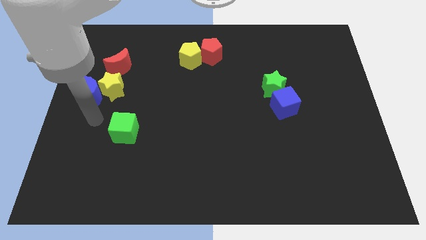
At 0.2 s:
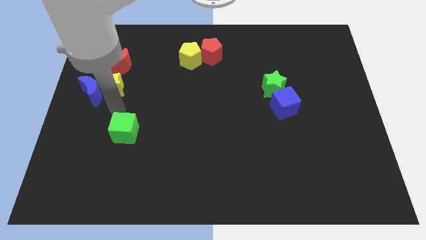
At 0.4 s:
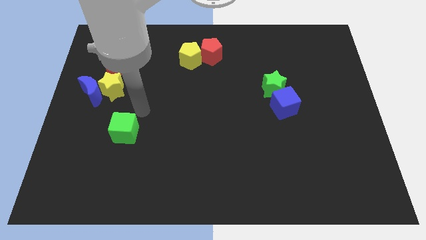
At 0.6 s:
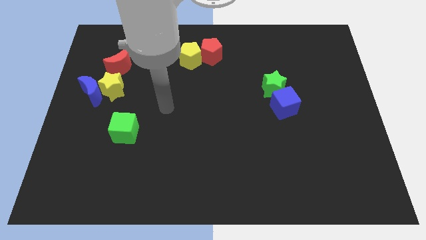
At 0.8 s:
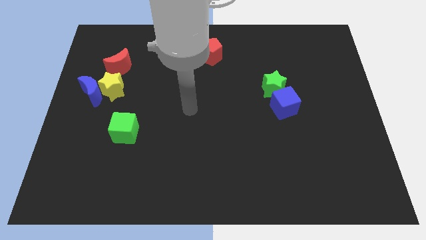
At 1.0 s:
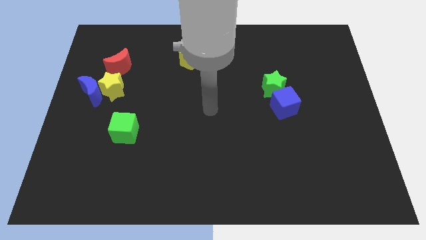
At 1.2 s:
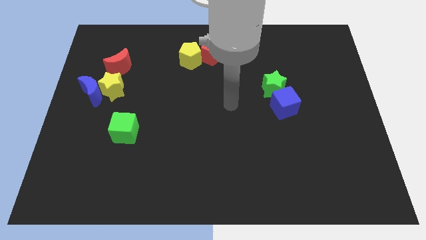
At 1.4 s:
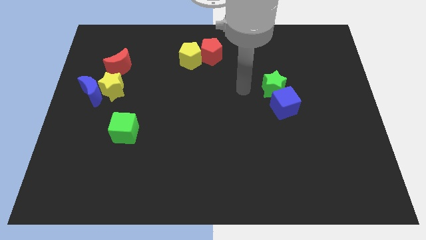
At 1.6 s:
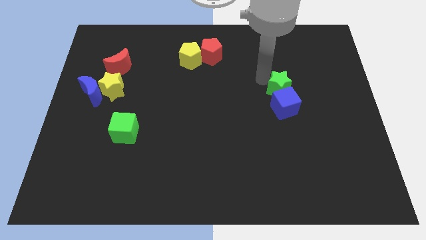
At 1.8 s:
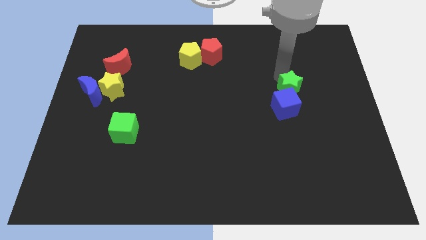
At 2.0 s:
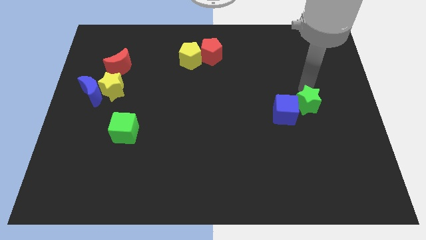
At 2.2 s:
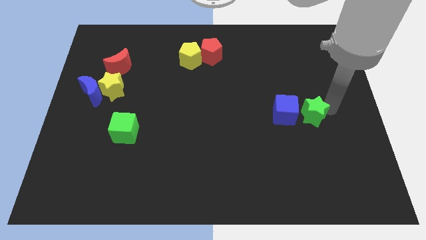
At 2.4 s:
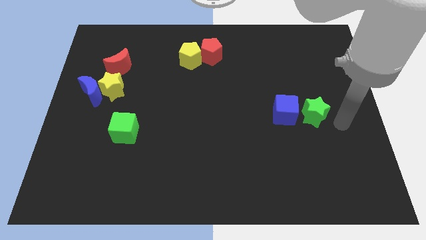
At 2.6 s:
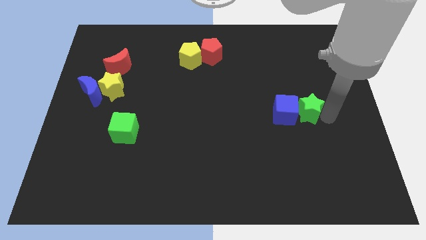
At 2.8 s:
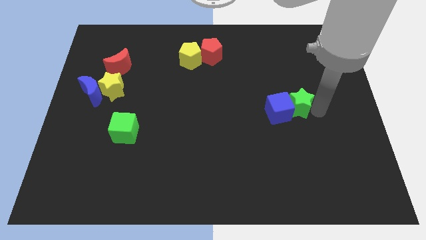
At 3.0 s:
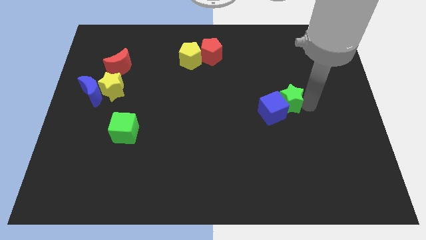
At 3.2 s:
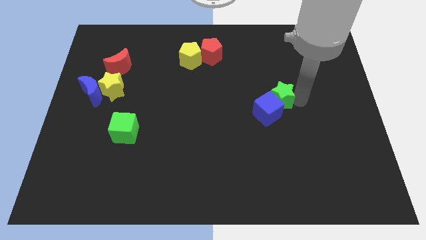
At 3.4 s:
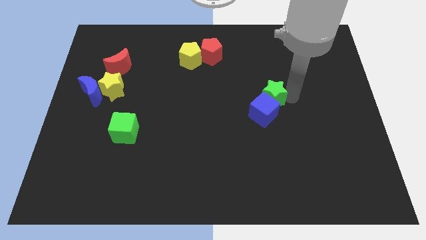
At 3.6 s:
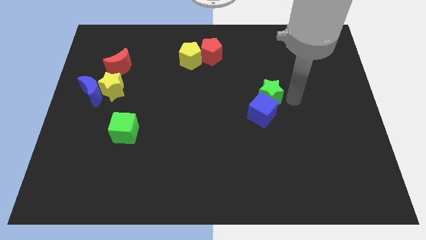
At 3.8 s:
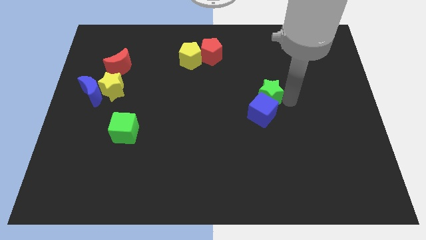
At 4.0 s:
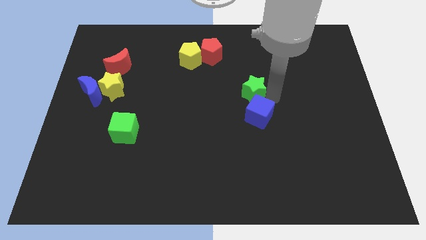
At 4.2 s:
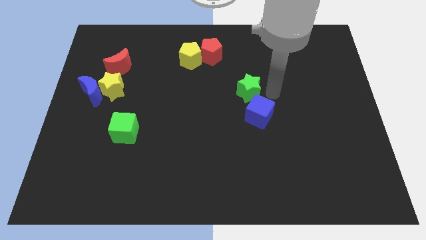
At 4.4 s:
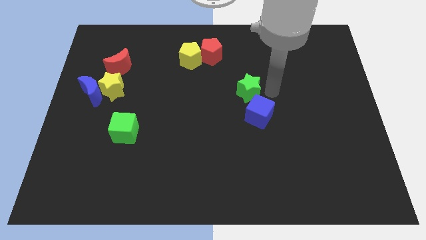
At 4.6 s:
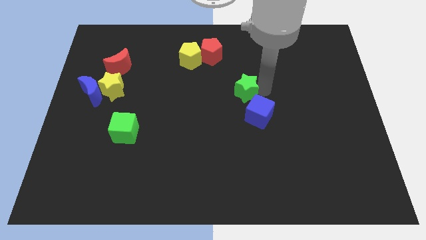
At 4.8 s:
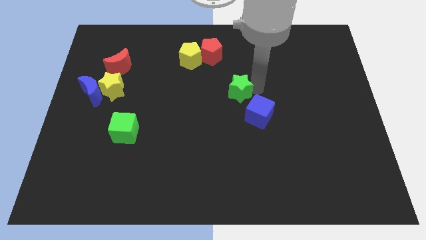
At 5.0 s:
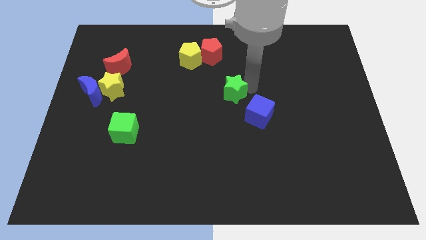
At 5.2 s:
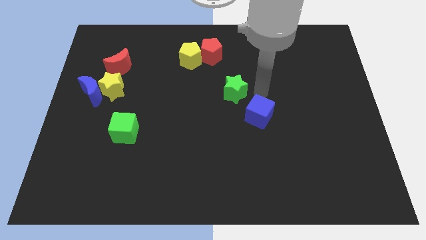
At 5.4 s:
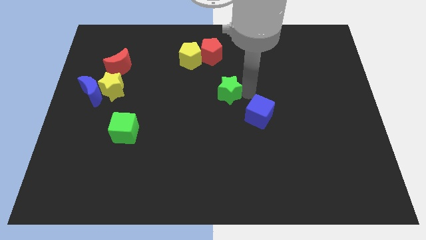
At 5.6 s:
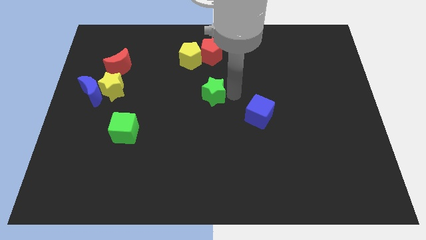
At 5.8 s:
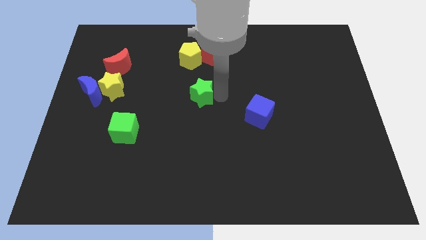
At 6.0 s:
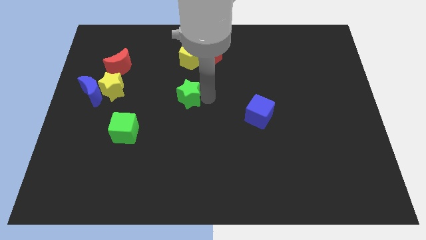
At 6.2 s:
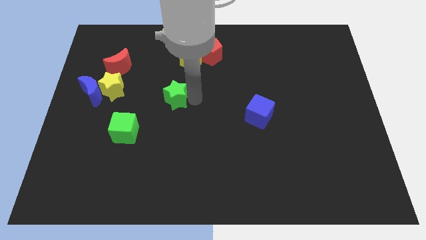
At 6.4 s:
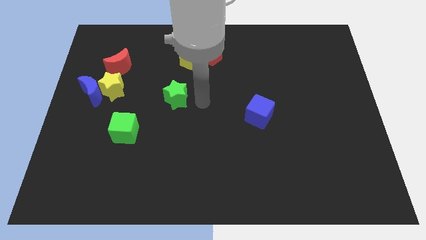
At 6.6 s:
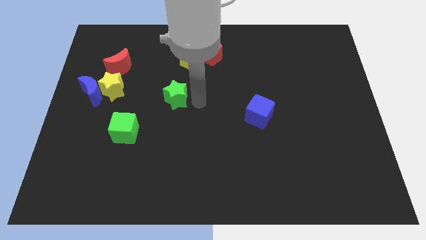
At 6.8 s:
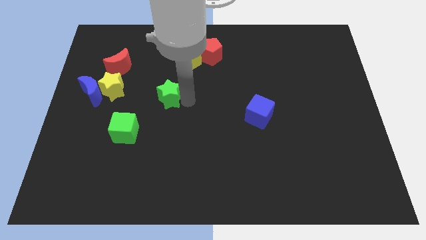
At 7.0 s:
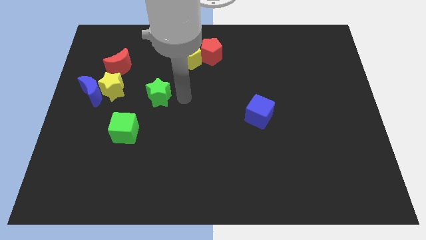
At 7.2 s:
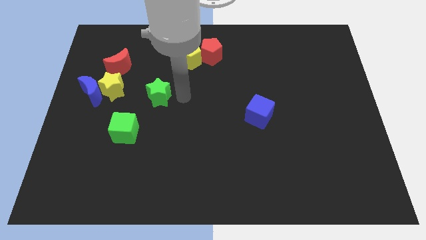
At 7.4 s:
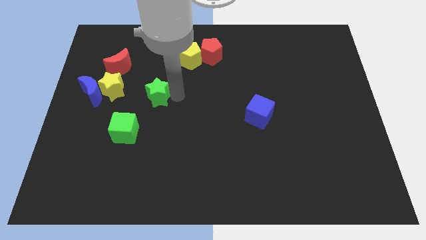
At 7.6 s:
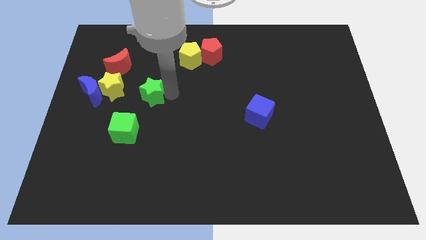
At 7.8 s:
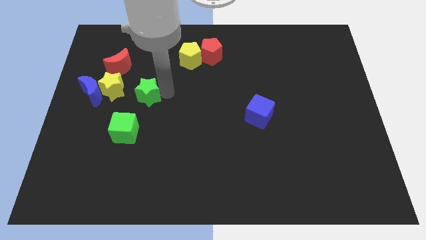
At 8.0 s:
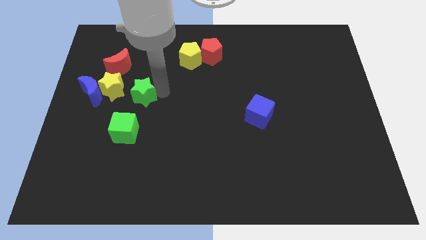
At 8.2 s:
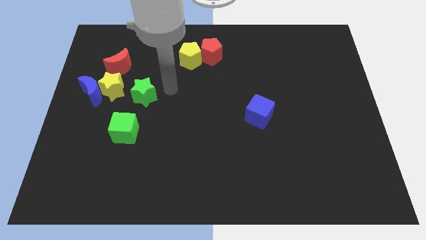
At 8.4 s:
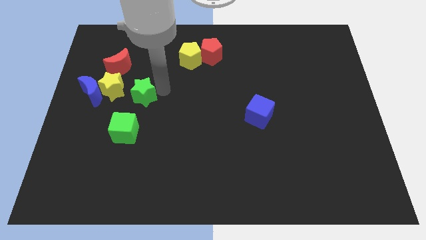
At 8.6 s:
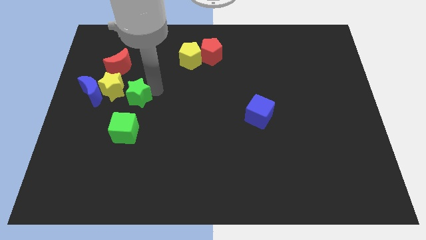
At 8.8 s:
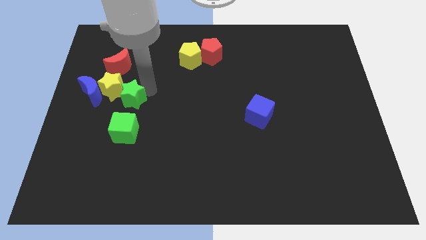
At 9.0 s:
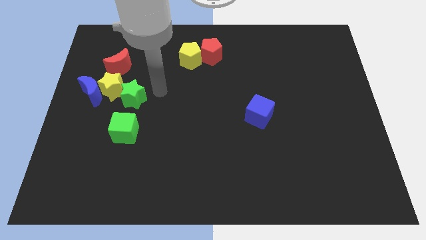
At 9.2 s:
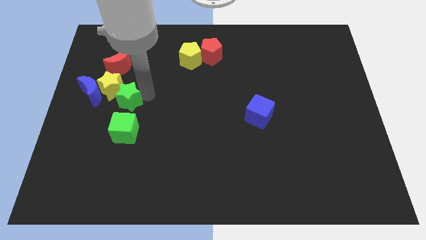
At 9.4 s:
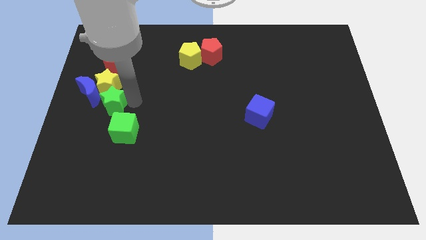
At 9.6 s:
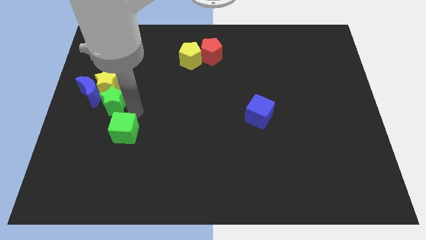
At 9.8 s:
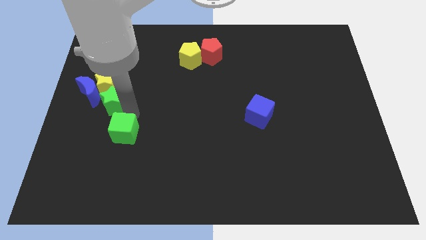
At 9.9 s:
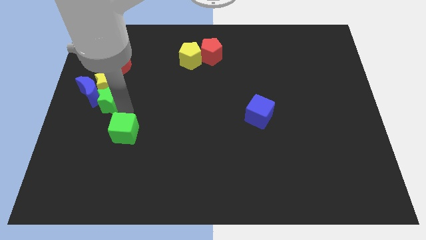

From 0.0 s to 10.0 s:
push the green star towards the blue moon

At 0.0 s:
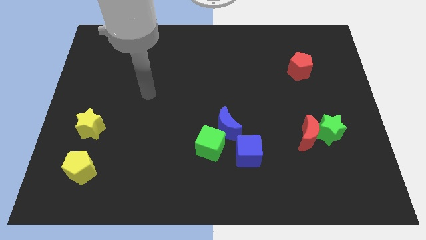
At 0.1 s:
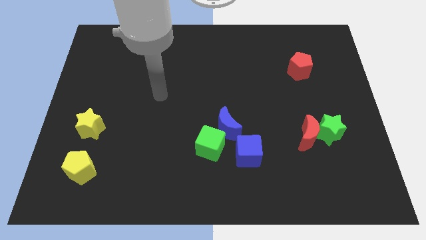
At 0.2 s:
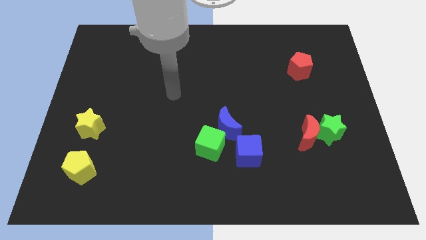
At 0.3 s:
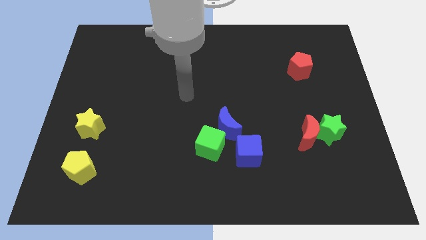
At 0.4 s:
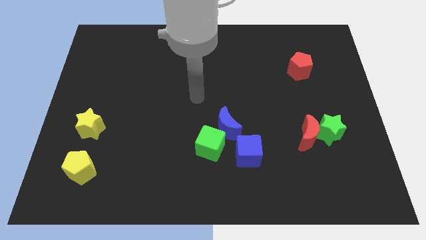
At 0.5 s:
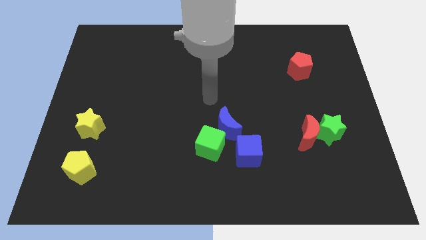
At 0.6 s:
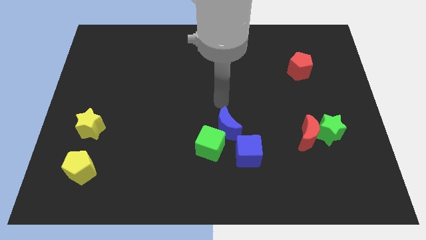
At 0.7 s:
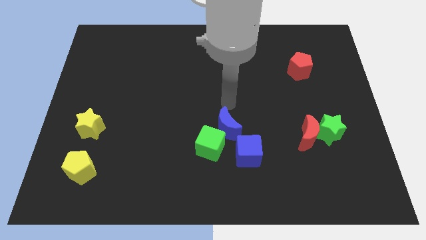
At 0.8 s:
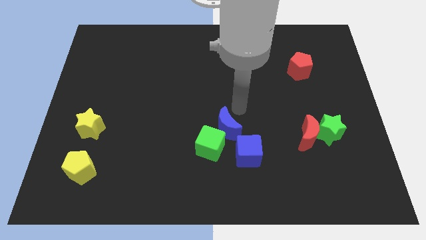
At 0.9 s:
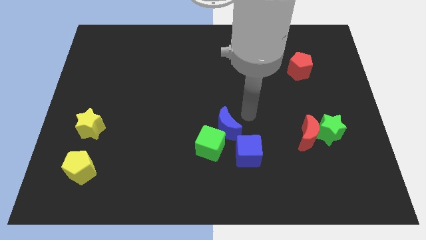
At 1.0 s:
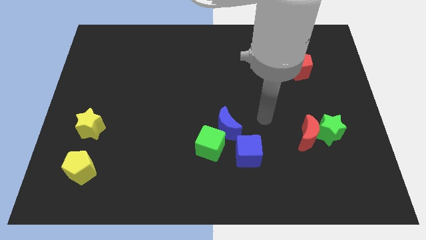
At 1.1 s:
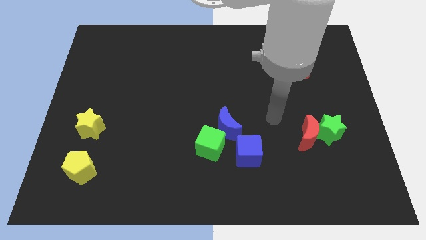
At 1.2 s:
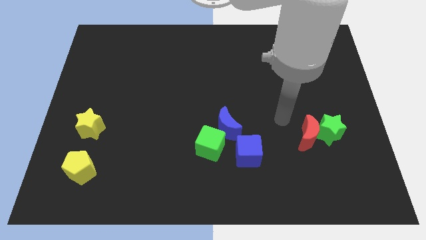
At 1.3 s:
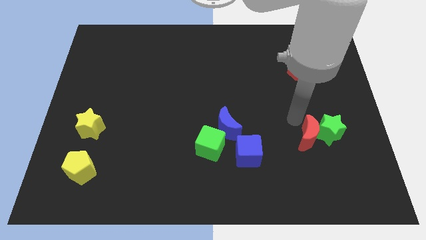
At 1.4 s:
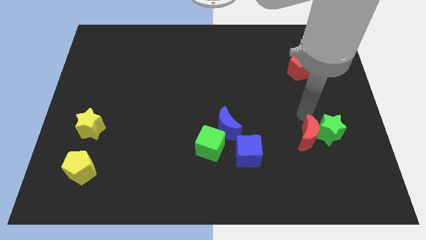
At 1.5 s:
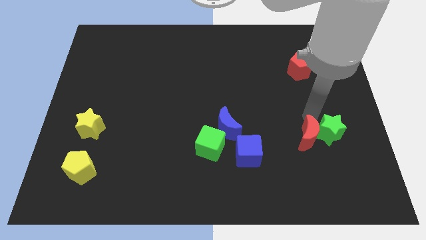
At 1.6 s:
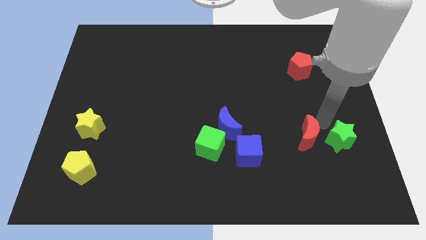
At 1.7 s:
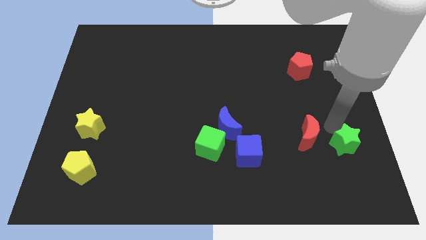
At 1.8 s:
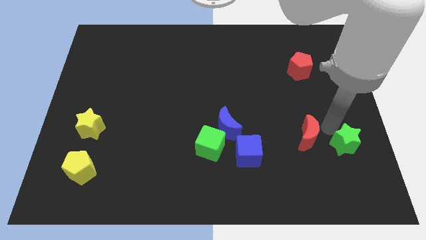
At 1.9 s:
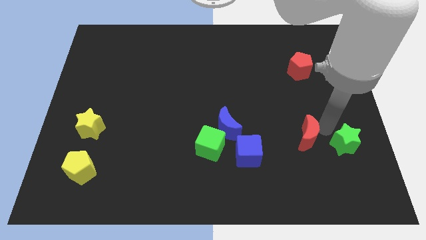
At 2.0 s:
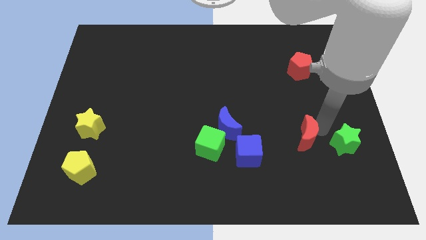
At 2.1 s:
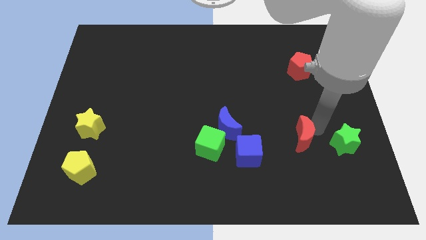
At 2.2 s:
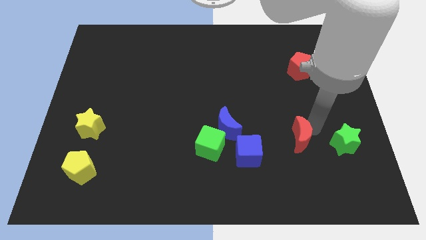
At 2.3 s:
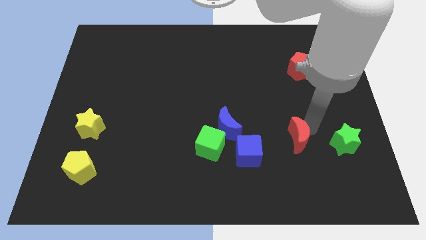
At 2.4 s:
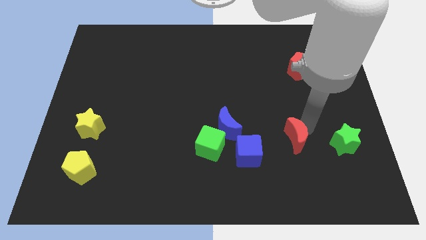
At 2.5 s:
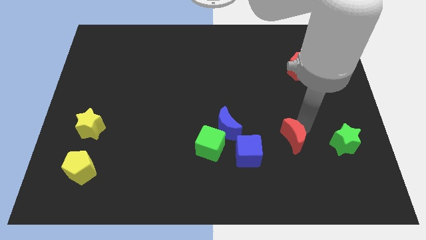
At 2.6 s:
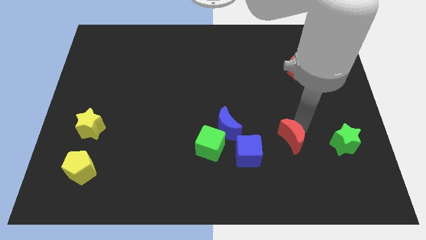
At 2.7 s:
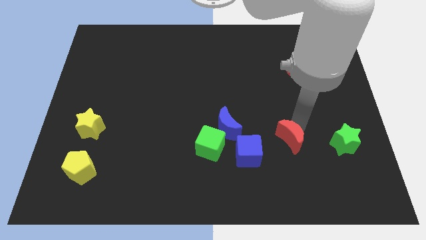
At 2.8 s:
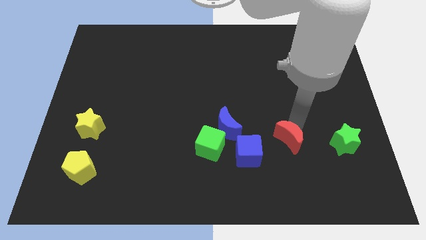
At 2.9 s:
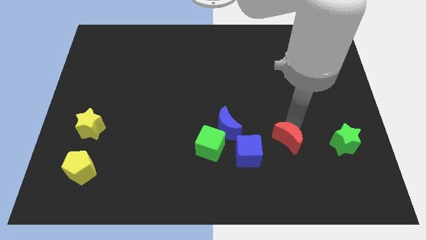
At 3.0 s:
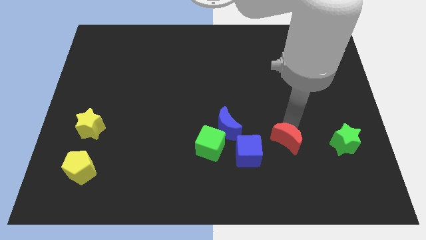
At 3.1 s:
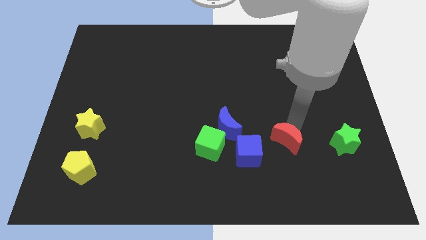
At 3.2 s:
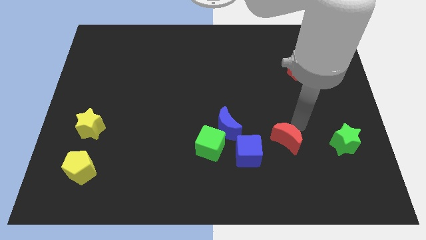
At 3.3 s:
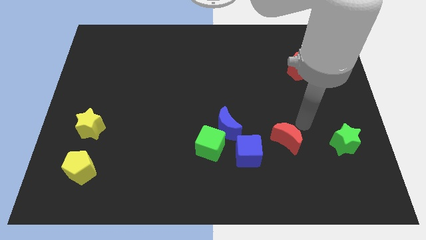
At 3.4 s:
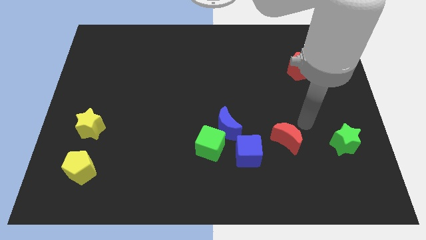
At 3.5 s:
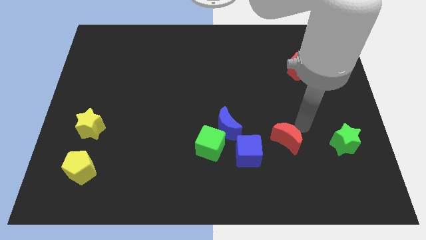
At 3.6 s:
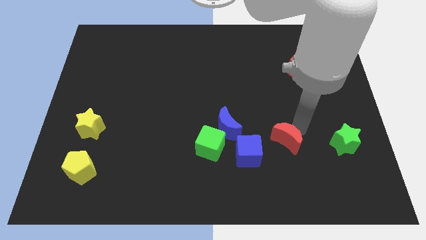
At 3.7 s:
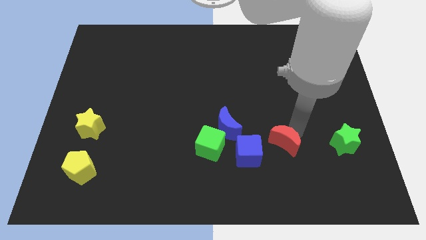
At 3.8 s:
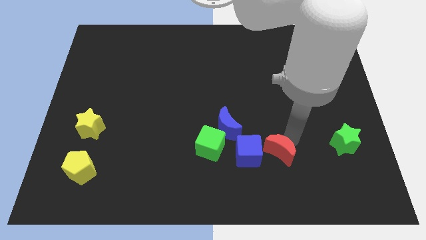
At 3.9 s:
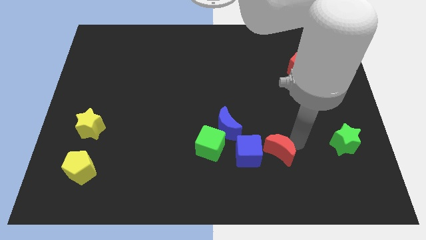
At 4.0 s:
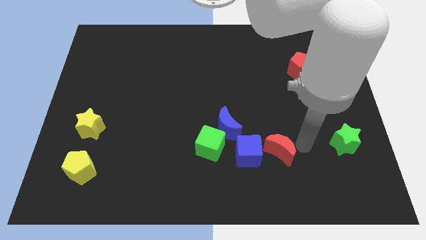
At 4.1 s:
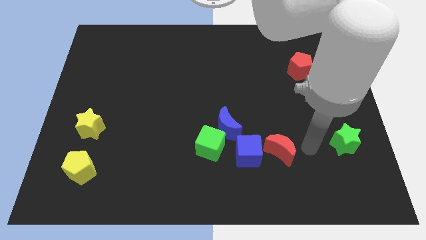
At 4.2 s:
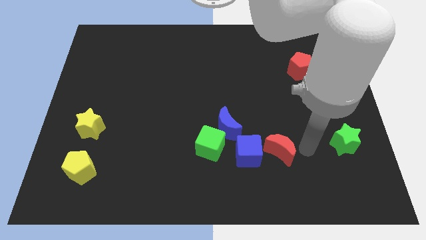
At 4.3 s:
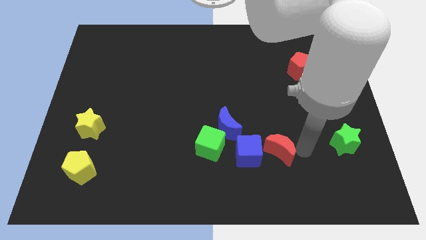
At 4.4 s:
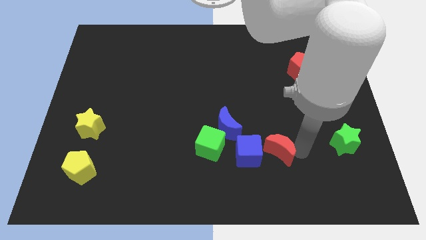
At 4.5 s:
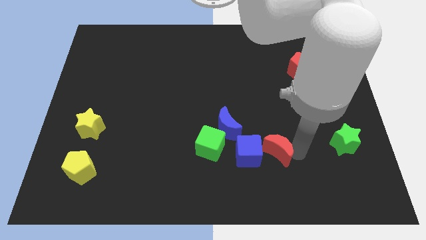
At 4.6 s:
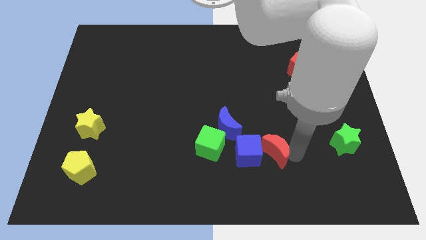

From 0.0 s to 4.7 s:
move the red moon towards the blue cube
